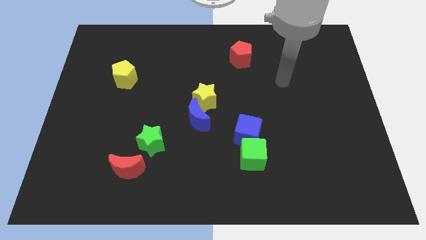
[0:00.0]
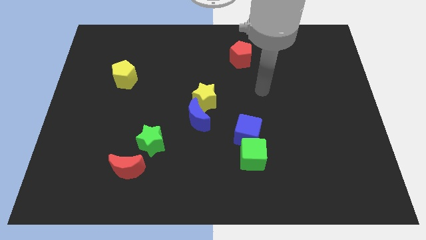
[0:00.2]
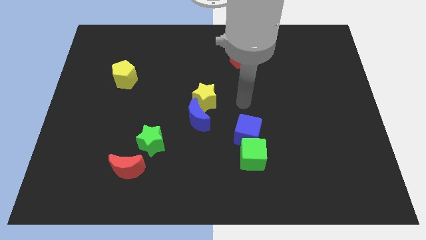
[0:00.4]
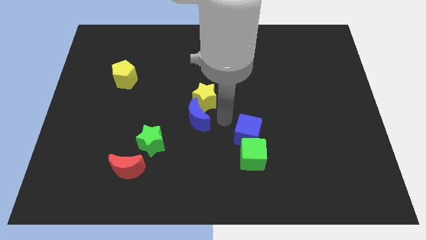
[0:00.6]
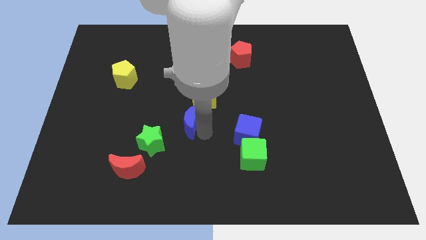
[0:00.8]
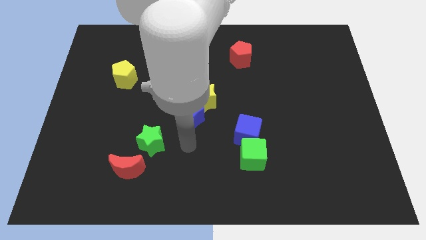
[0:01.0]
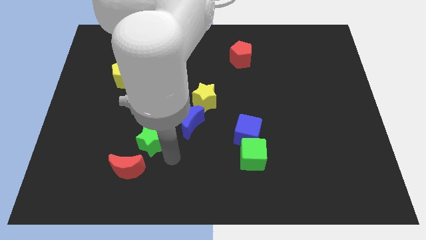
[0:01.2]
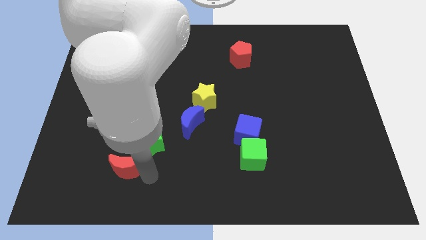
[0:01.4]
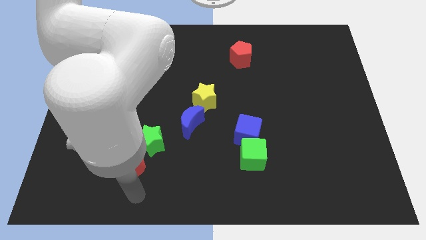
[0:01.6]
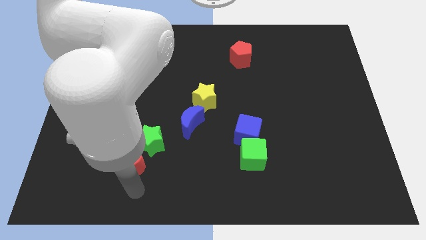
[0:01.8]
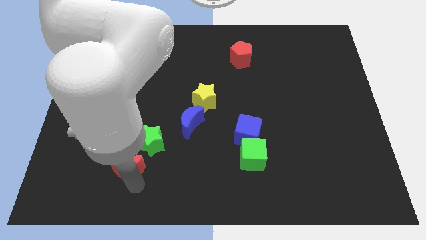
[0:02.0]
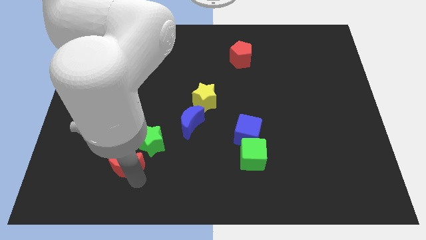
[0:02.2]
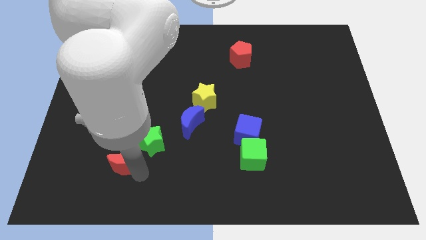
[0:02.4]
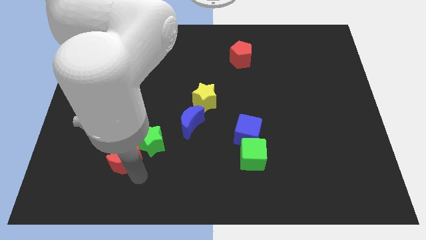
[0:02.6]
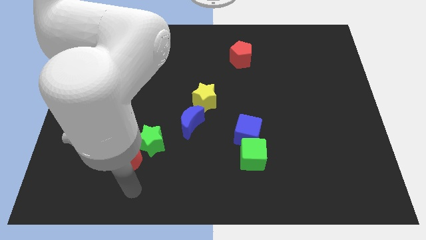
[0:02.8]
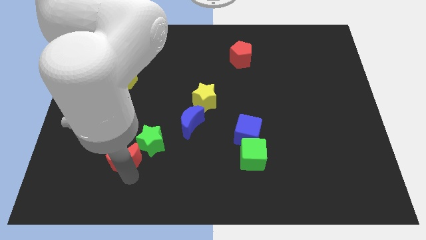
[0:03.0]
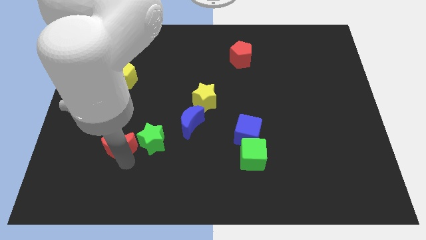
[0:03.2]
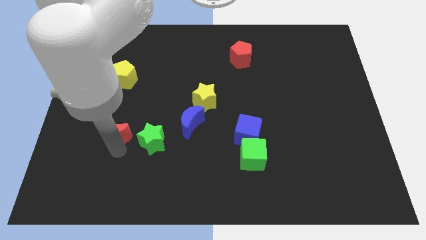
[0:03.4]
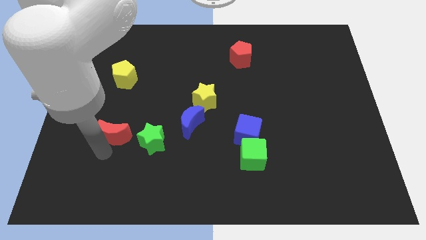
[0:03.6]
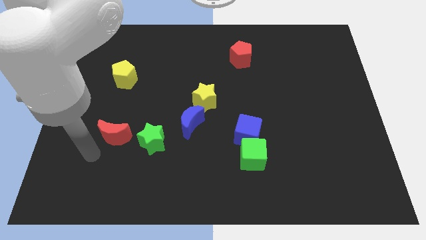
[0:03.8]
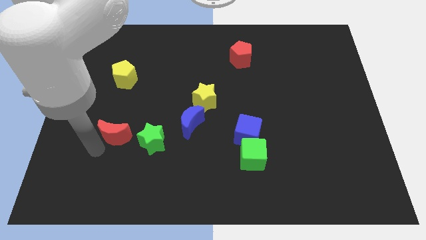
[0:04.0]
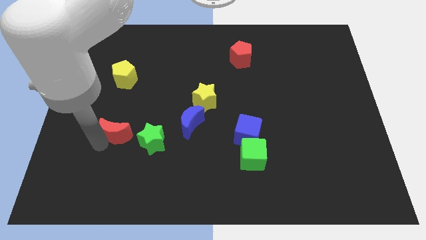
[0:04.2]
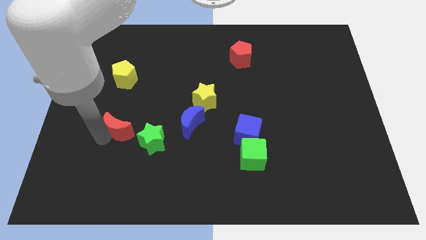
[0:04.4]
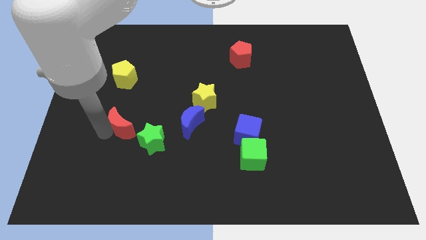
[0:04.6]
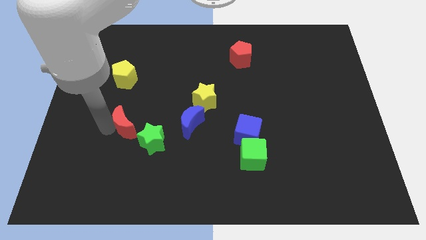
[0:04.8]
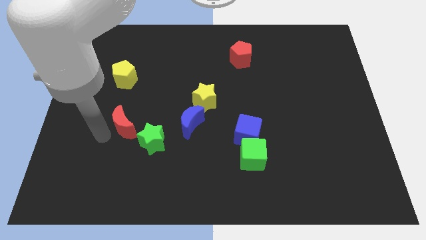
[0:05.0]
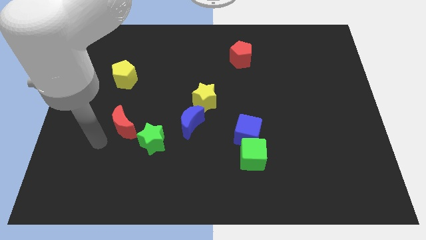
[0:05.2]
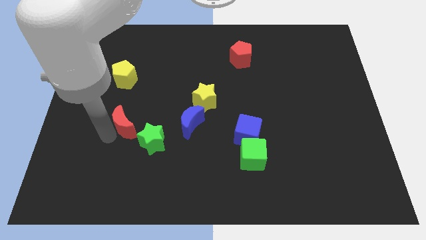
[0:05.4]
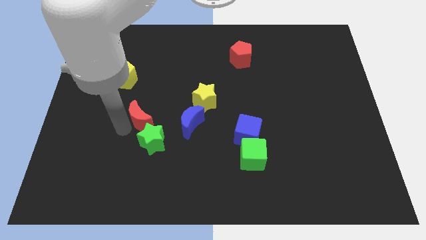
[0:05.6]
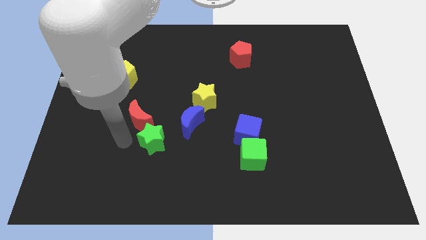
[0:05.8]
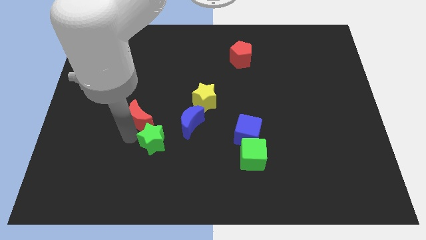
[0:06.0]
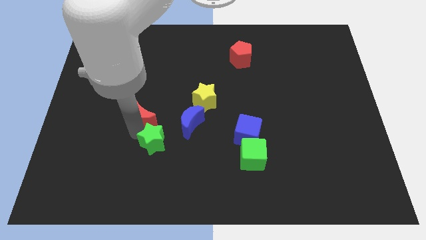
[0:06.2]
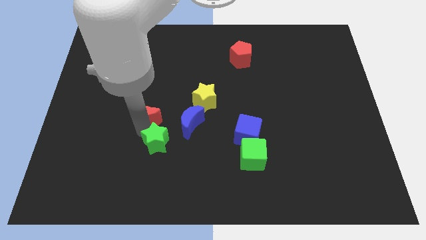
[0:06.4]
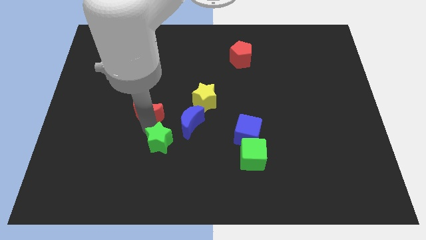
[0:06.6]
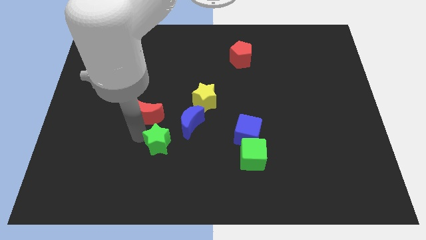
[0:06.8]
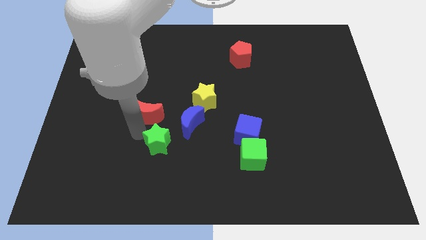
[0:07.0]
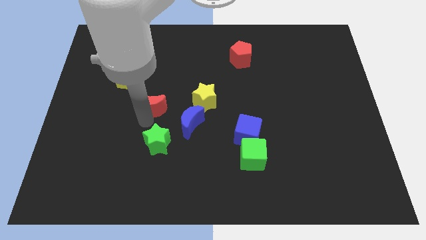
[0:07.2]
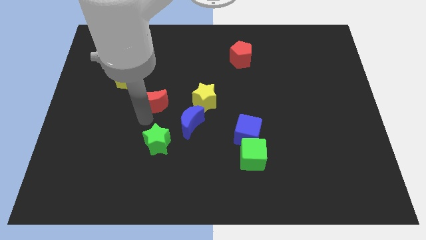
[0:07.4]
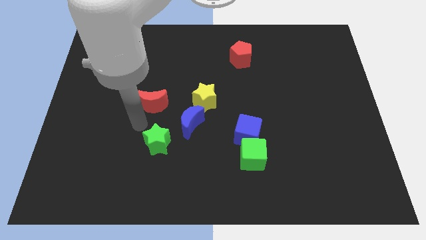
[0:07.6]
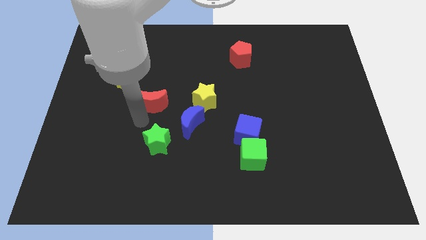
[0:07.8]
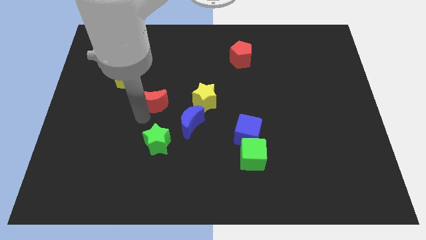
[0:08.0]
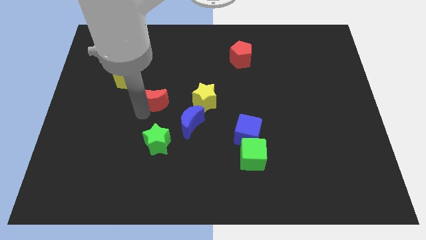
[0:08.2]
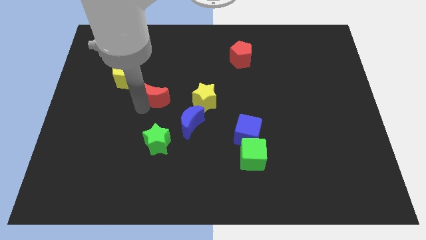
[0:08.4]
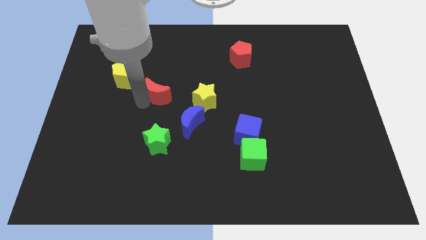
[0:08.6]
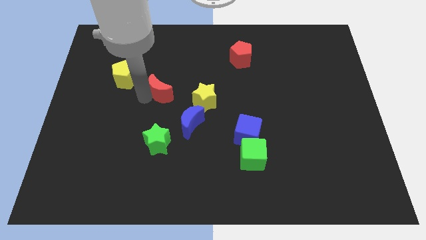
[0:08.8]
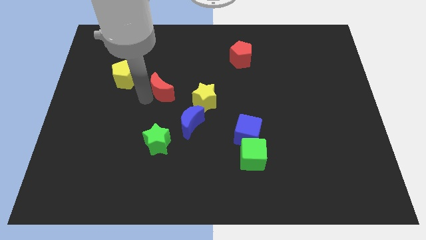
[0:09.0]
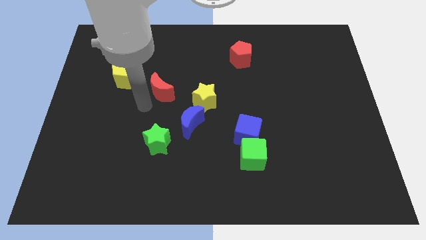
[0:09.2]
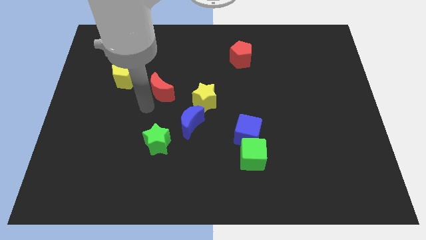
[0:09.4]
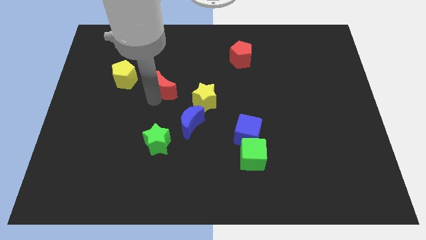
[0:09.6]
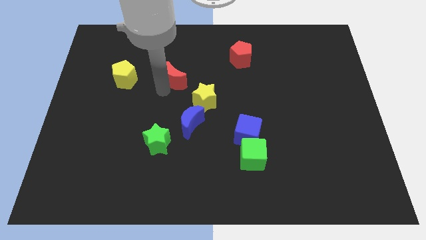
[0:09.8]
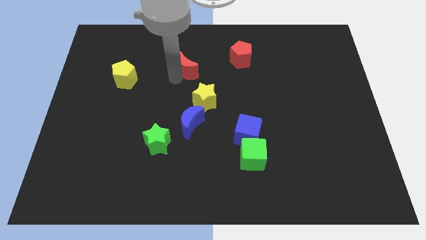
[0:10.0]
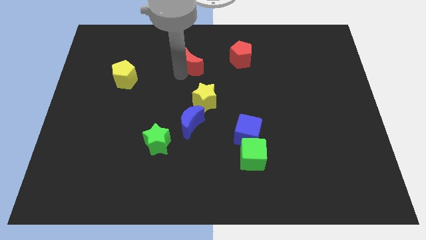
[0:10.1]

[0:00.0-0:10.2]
slide the red moon to the left of the red pentagon

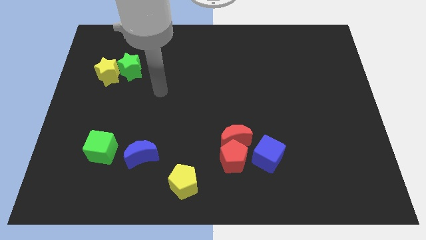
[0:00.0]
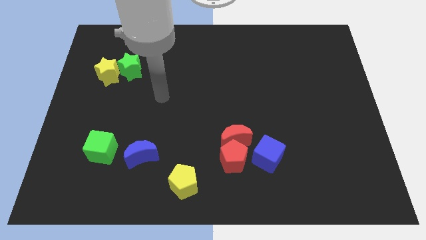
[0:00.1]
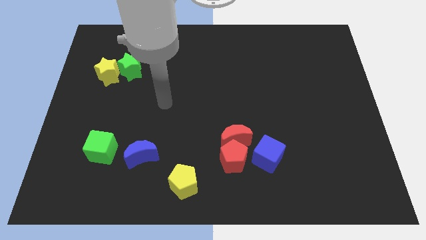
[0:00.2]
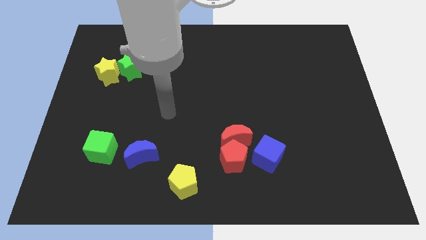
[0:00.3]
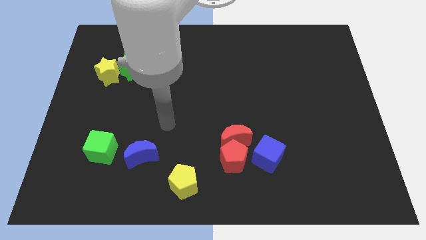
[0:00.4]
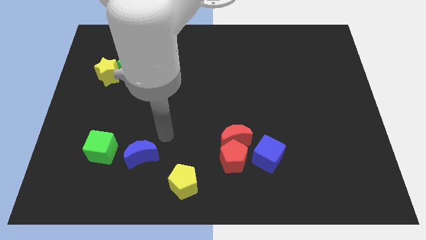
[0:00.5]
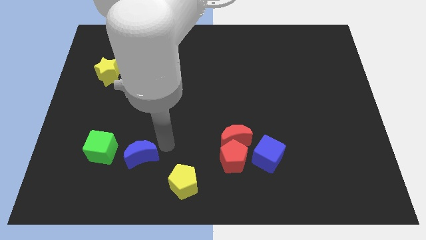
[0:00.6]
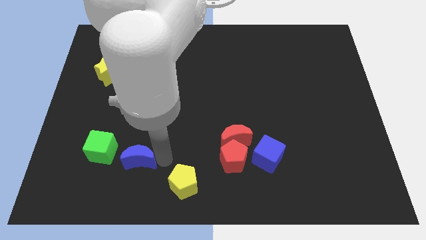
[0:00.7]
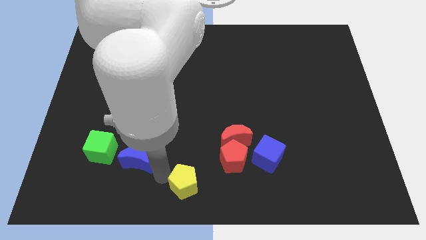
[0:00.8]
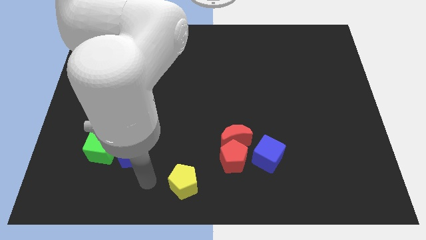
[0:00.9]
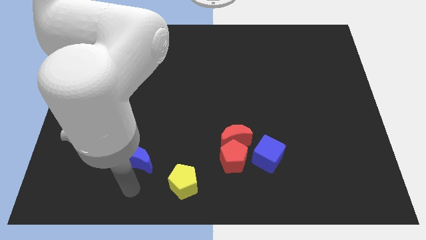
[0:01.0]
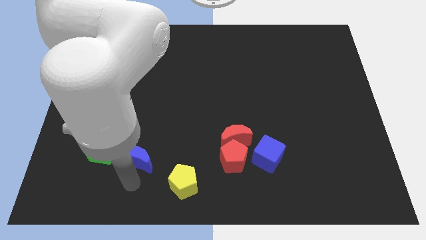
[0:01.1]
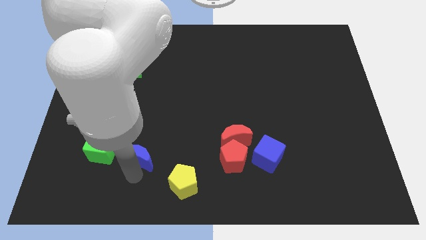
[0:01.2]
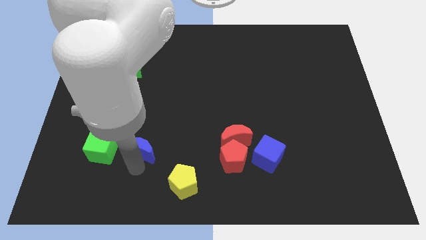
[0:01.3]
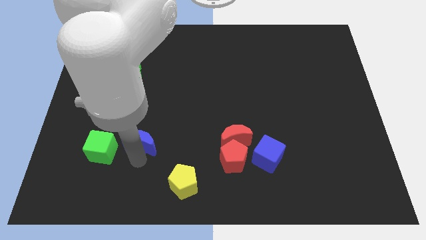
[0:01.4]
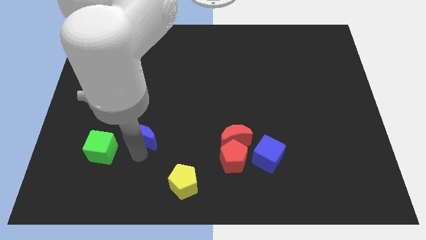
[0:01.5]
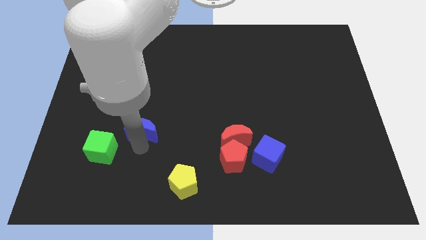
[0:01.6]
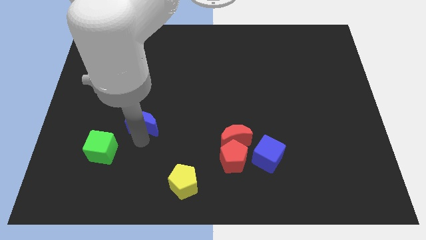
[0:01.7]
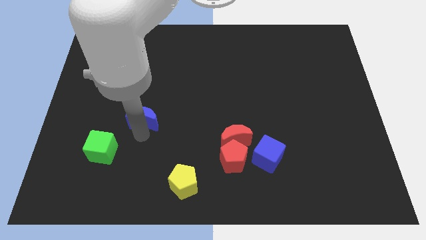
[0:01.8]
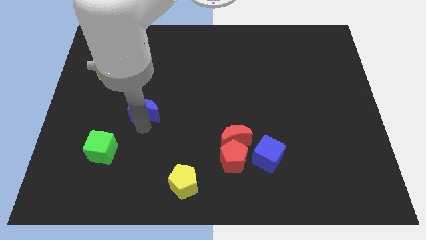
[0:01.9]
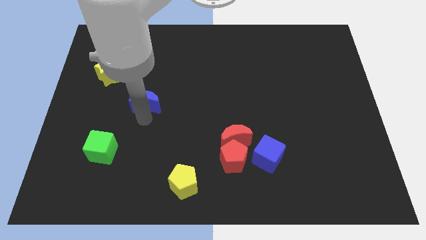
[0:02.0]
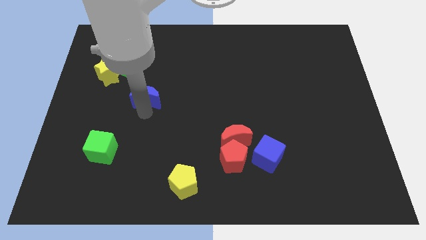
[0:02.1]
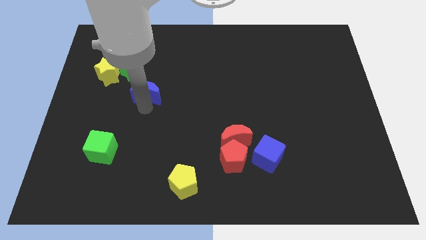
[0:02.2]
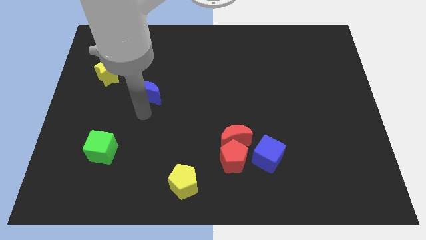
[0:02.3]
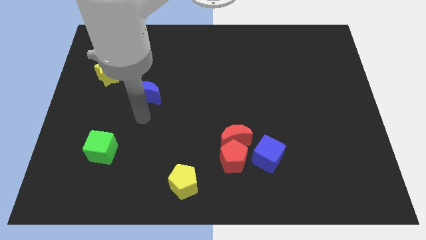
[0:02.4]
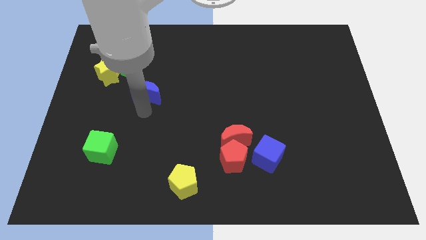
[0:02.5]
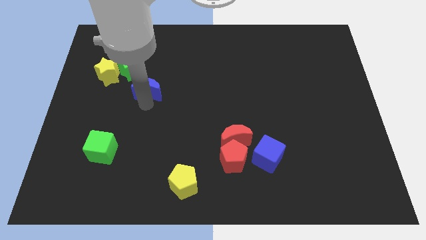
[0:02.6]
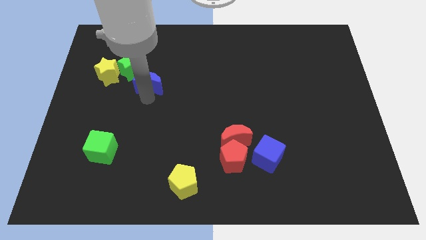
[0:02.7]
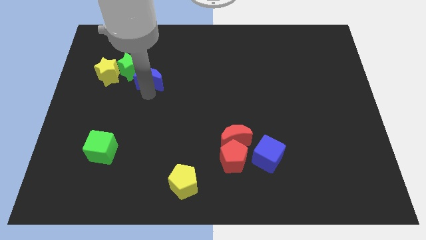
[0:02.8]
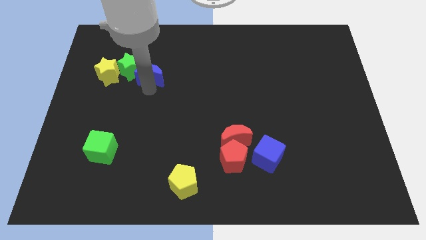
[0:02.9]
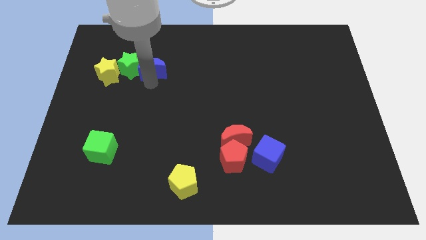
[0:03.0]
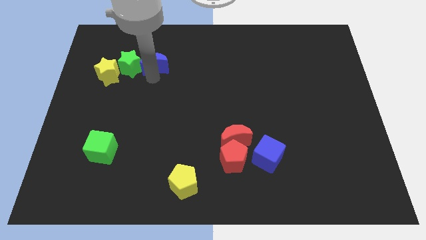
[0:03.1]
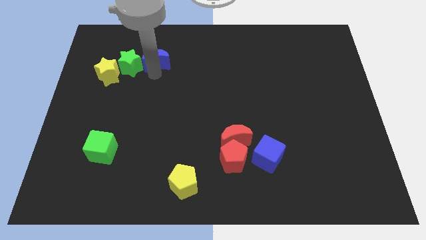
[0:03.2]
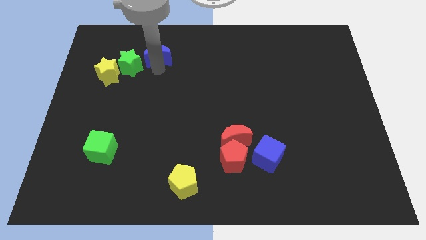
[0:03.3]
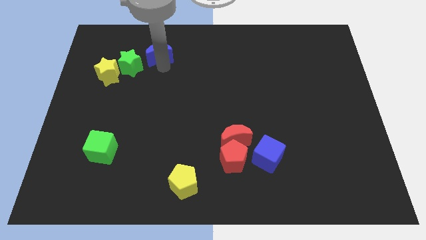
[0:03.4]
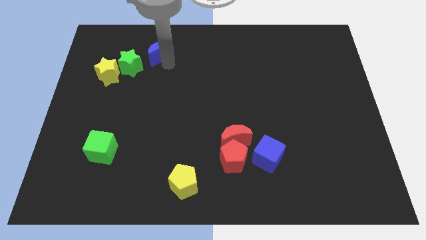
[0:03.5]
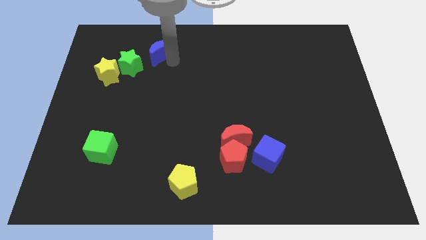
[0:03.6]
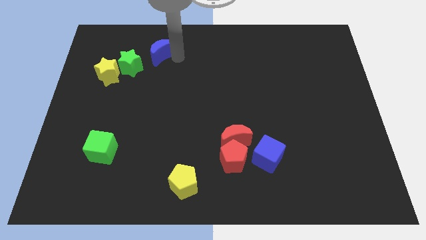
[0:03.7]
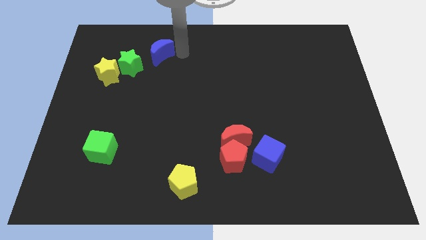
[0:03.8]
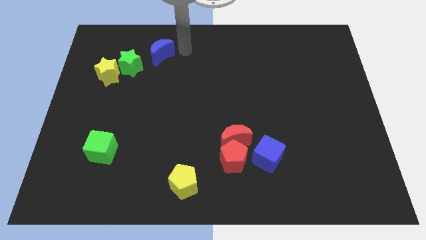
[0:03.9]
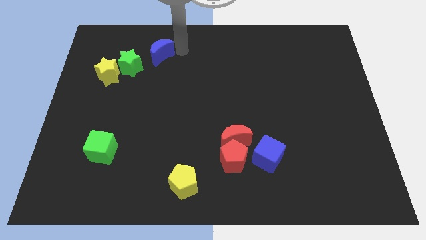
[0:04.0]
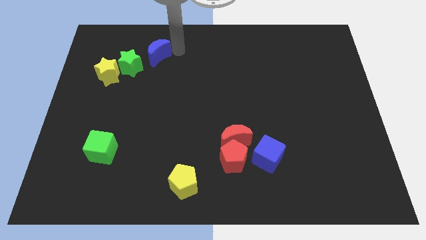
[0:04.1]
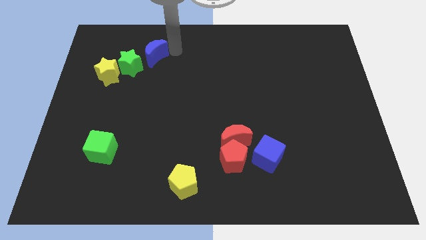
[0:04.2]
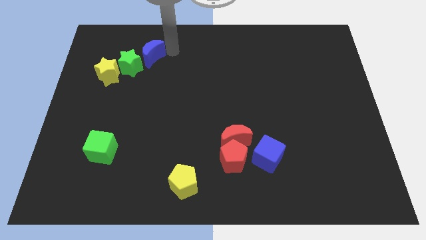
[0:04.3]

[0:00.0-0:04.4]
move the blue moon to the top right of the yellow star
